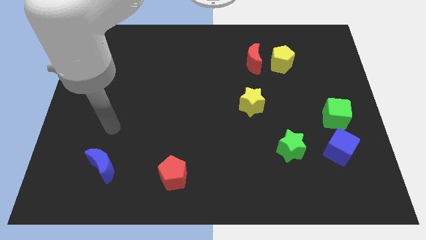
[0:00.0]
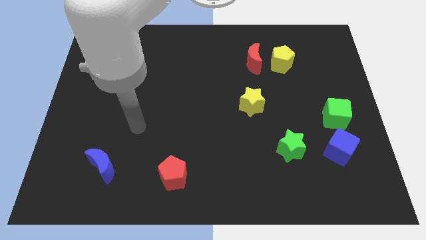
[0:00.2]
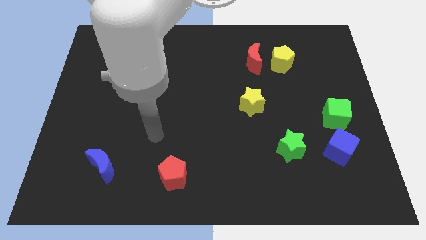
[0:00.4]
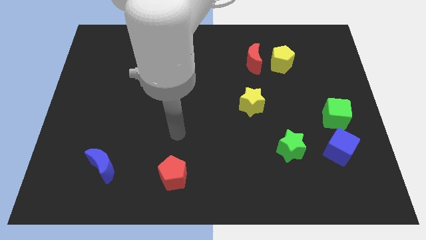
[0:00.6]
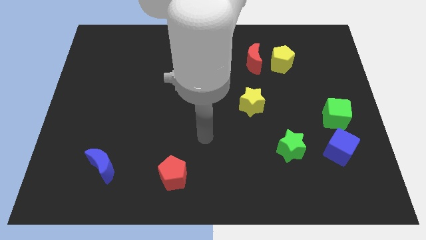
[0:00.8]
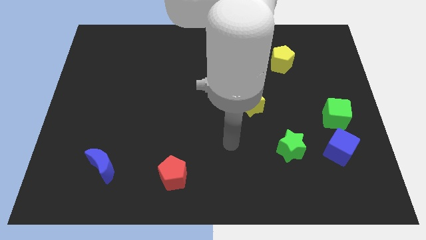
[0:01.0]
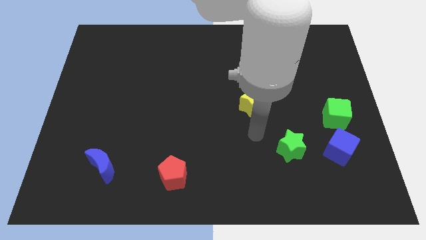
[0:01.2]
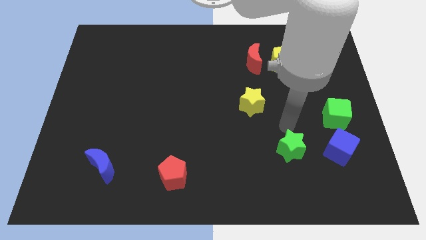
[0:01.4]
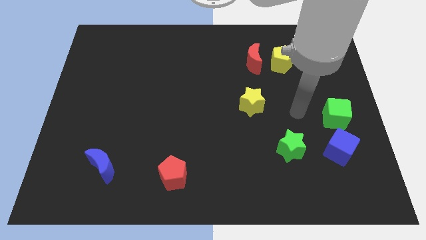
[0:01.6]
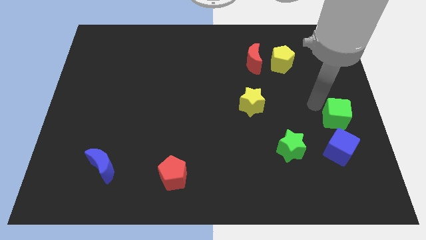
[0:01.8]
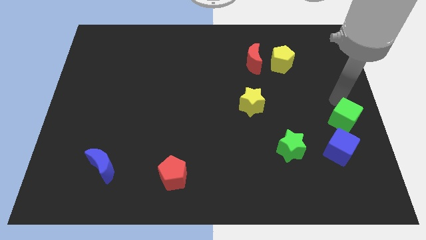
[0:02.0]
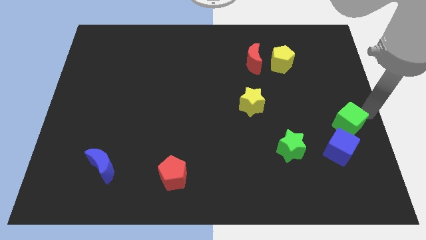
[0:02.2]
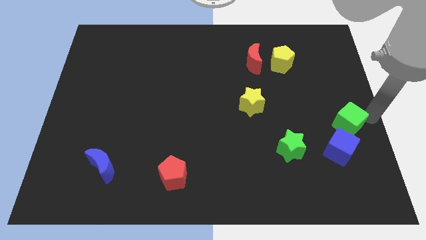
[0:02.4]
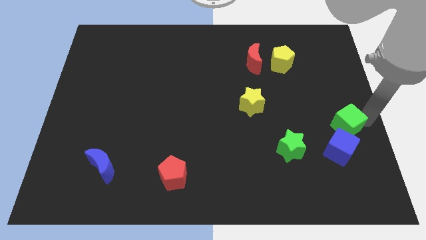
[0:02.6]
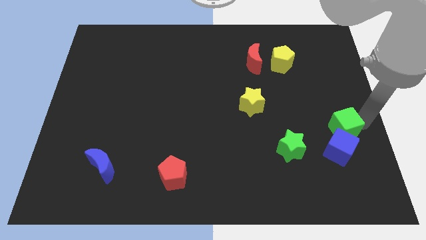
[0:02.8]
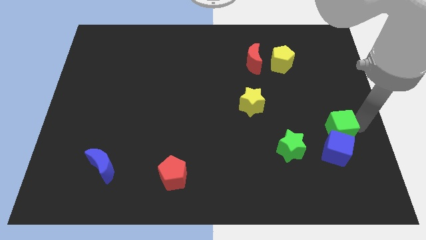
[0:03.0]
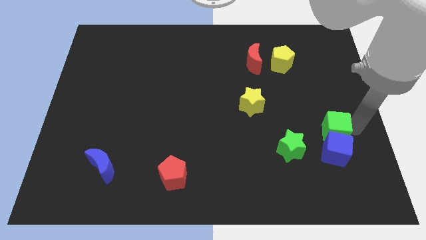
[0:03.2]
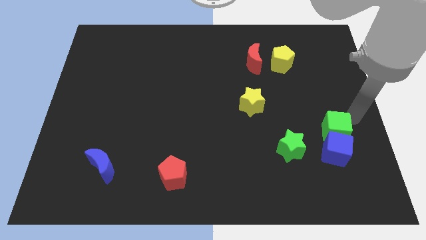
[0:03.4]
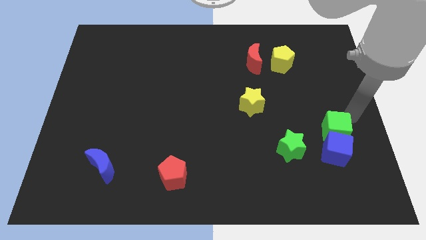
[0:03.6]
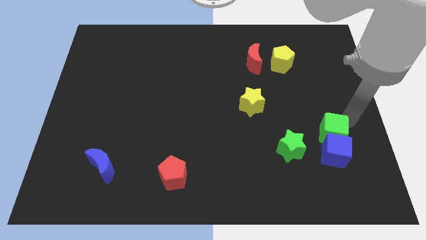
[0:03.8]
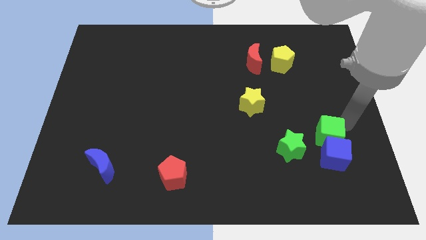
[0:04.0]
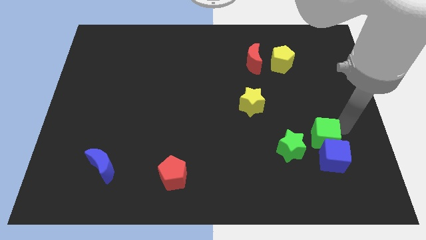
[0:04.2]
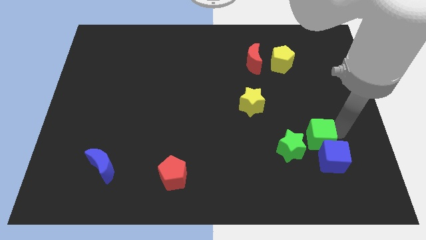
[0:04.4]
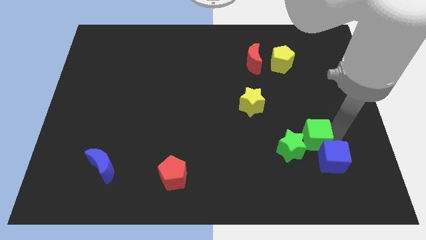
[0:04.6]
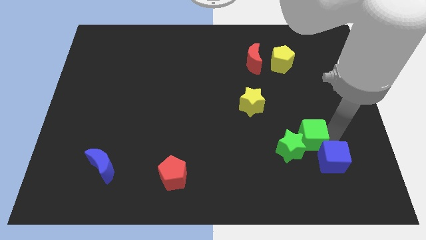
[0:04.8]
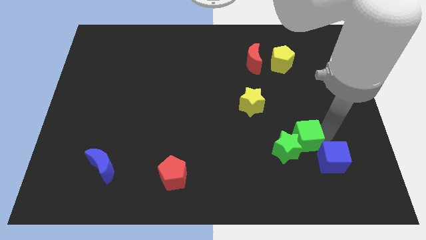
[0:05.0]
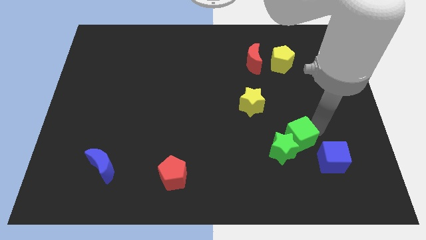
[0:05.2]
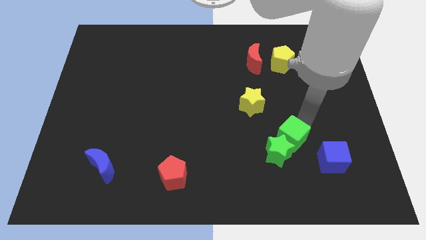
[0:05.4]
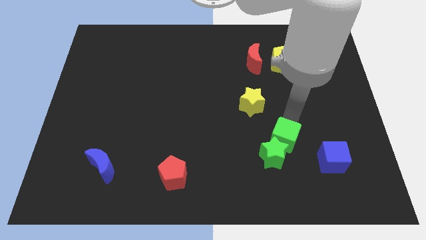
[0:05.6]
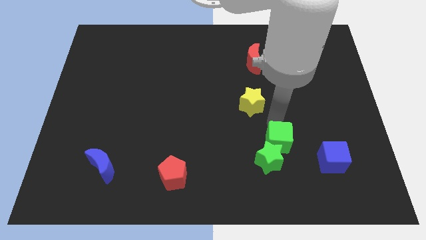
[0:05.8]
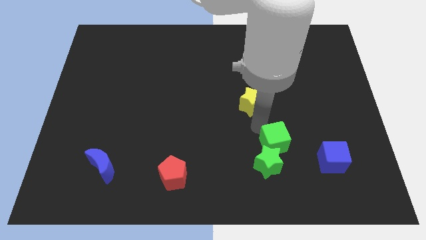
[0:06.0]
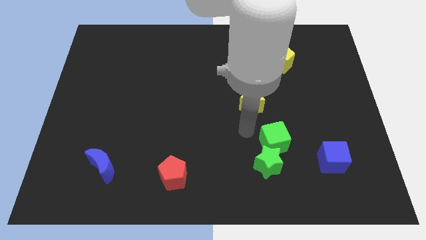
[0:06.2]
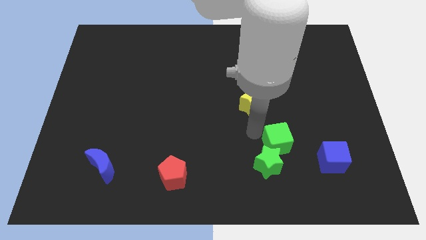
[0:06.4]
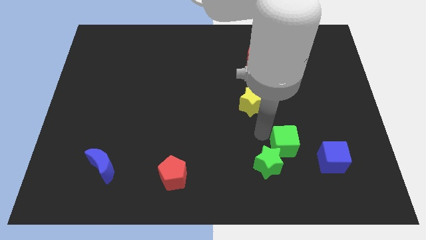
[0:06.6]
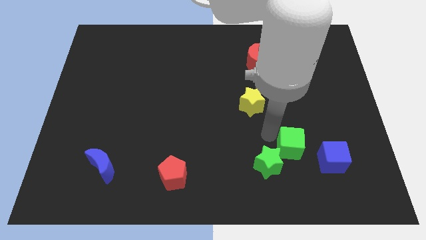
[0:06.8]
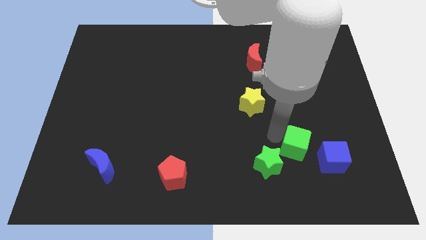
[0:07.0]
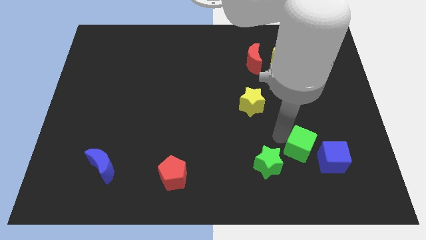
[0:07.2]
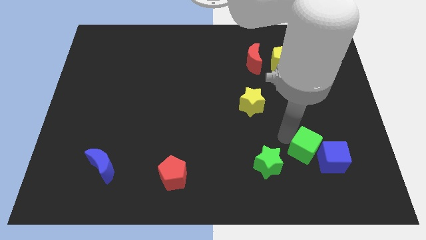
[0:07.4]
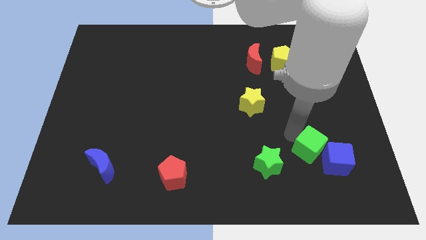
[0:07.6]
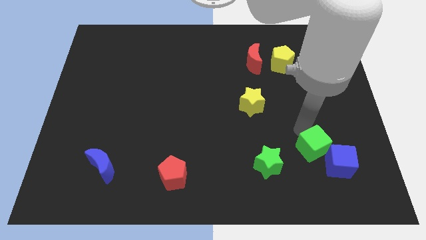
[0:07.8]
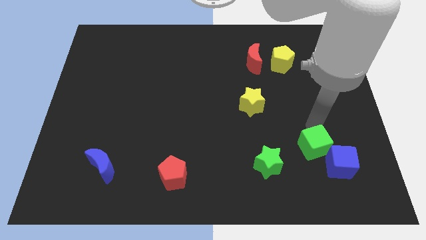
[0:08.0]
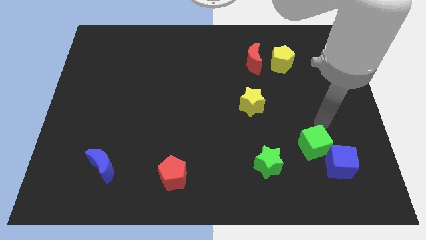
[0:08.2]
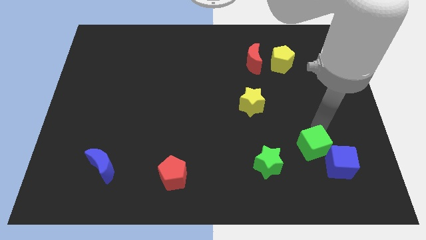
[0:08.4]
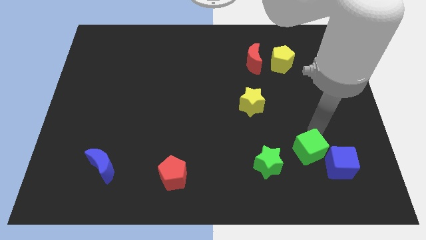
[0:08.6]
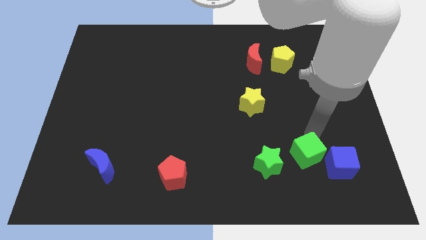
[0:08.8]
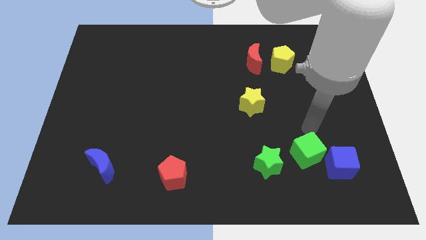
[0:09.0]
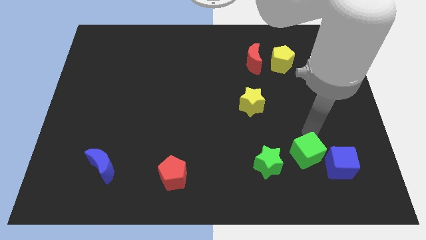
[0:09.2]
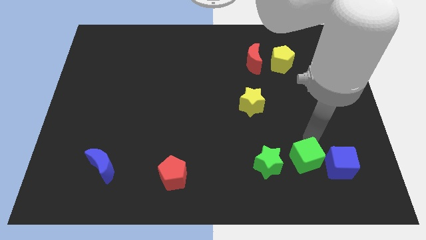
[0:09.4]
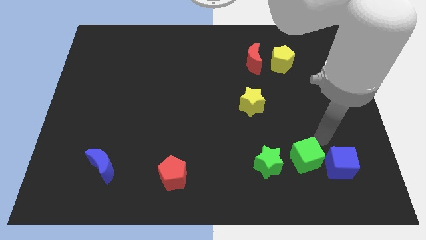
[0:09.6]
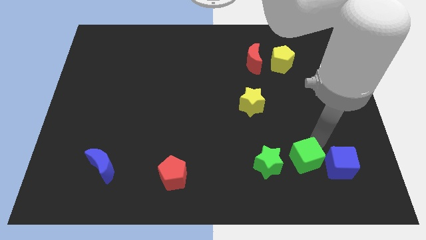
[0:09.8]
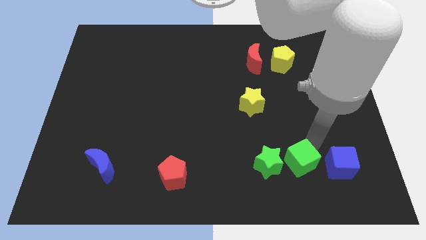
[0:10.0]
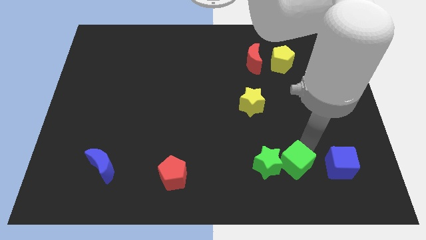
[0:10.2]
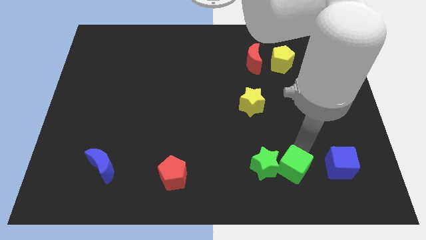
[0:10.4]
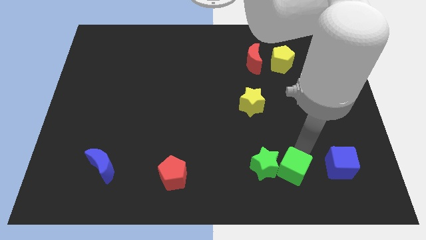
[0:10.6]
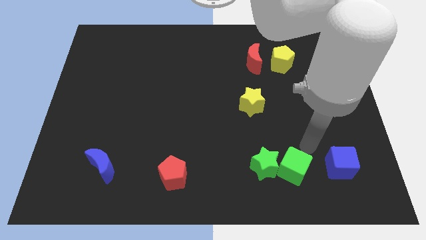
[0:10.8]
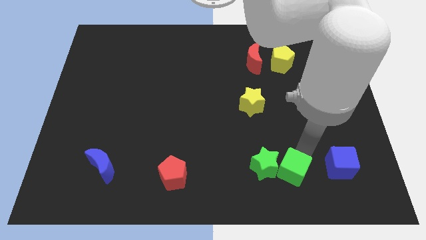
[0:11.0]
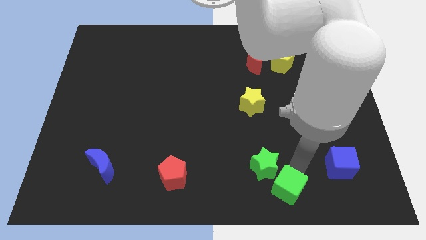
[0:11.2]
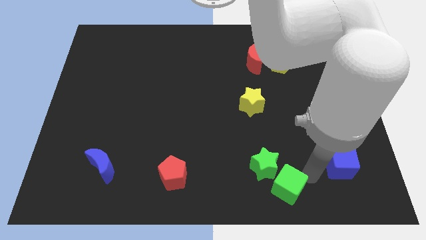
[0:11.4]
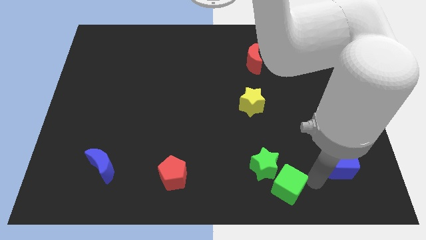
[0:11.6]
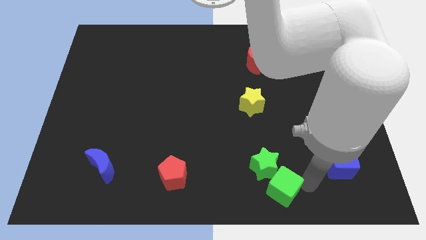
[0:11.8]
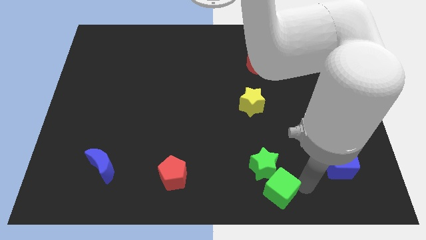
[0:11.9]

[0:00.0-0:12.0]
put the green cube to the bottom
